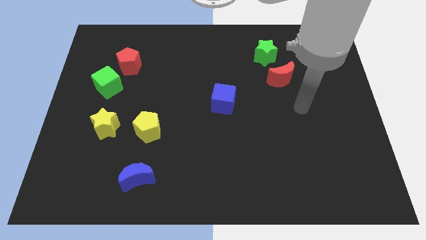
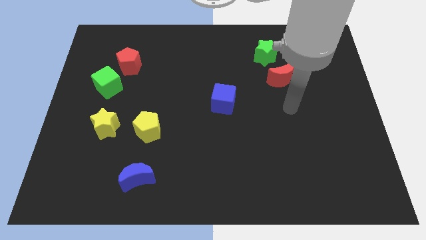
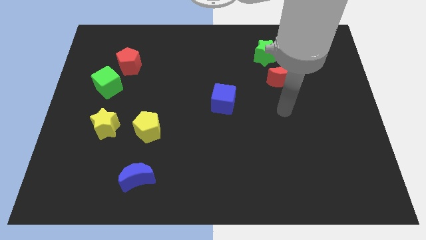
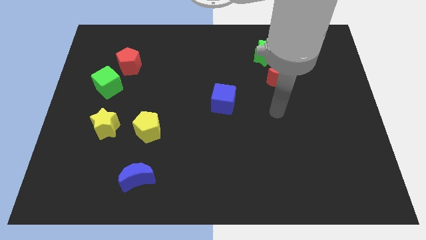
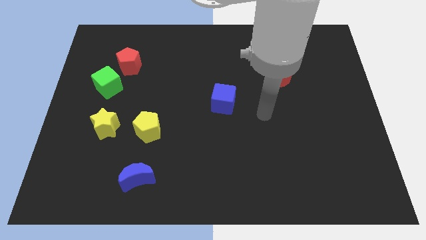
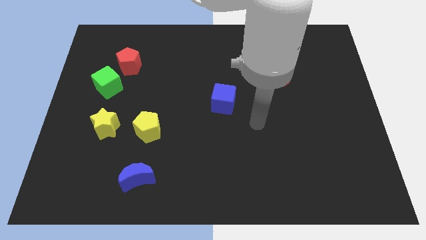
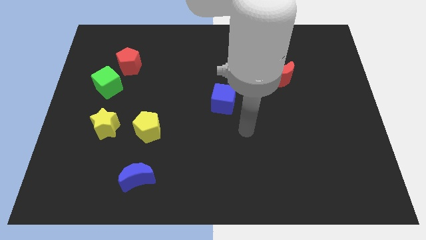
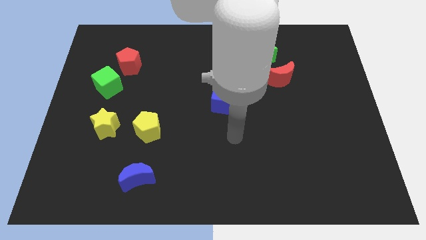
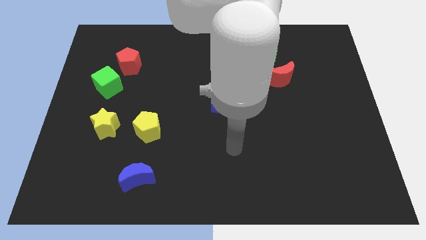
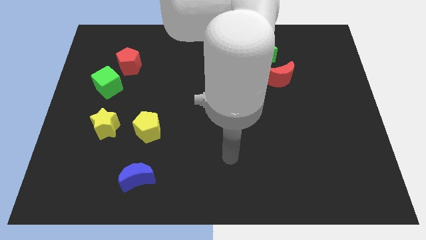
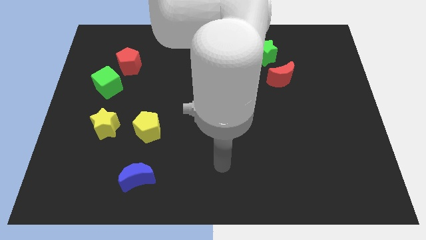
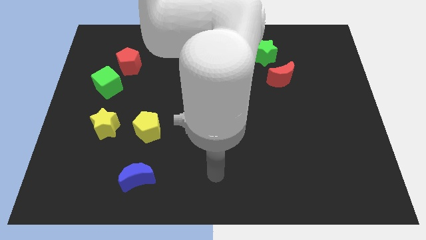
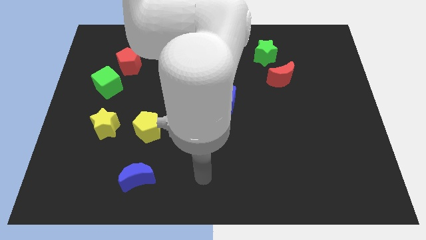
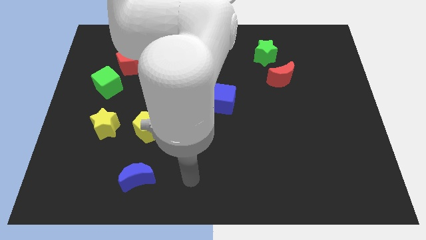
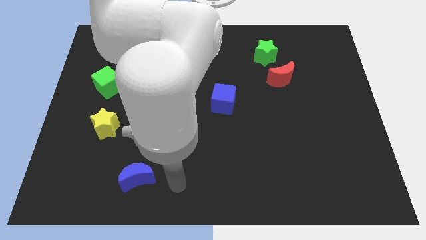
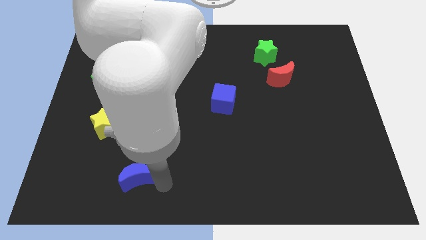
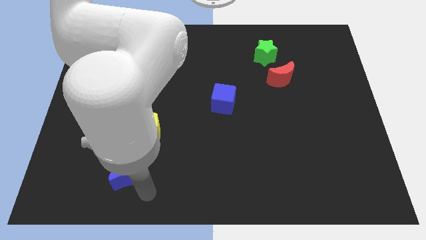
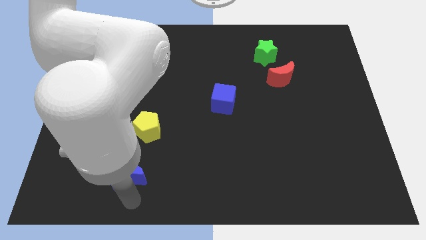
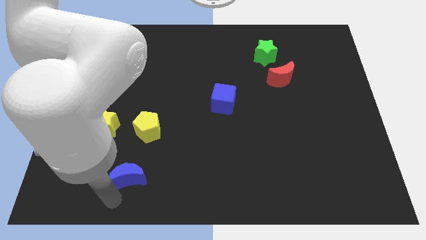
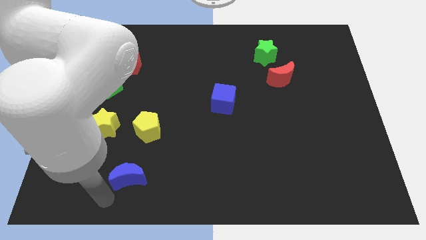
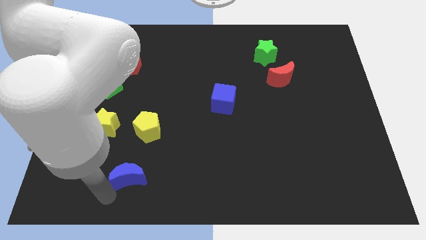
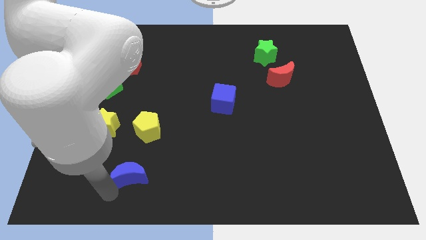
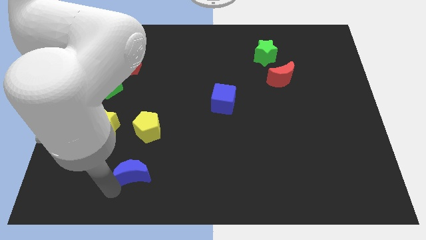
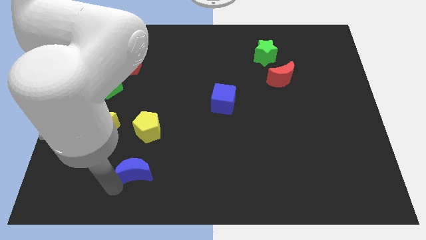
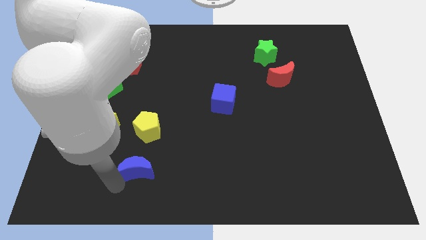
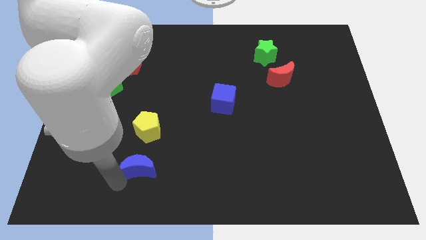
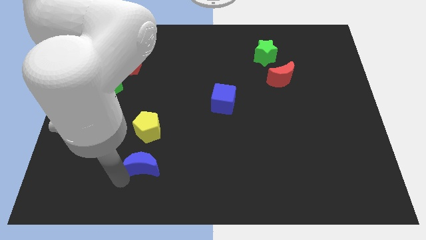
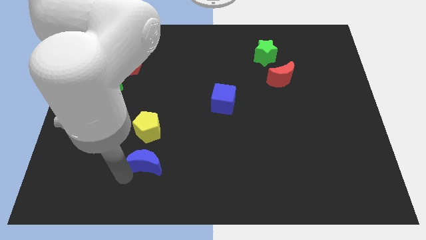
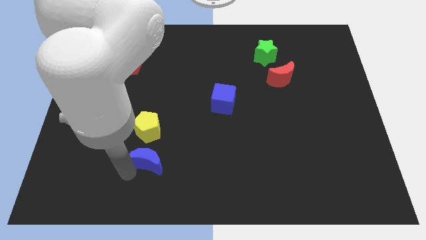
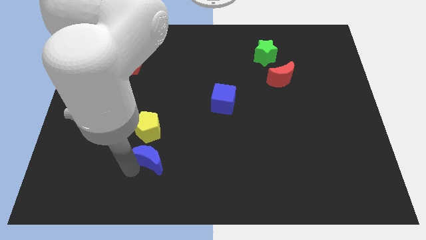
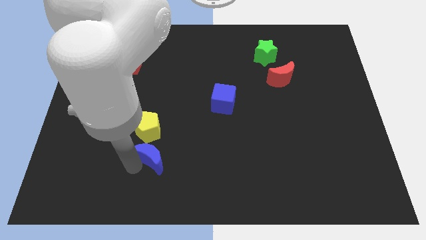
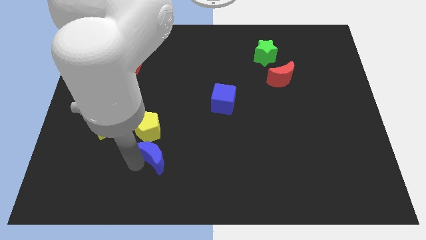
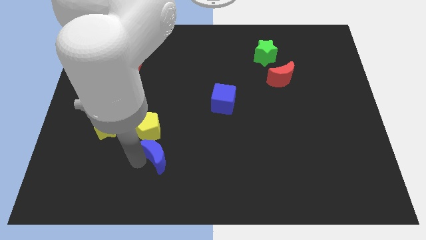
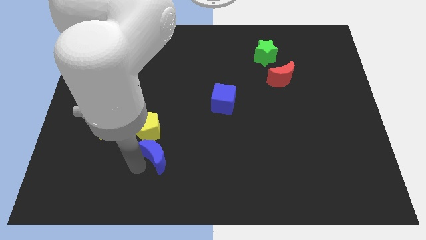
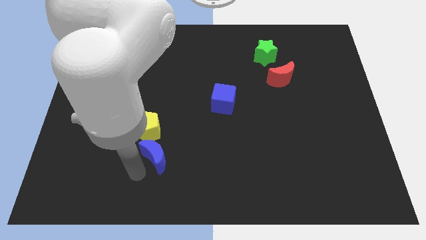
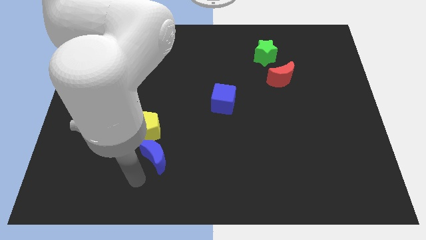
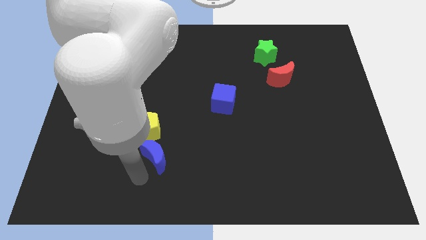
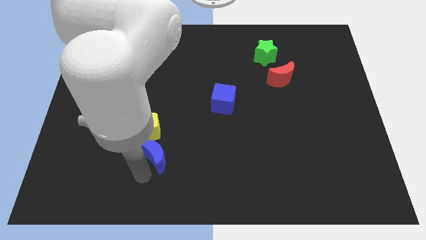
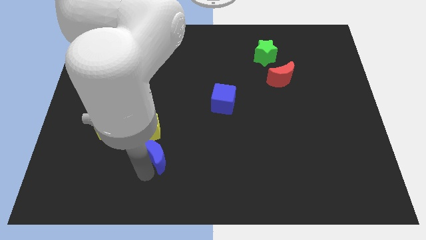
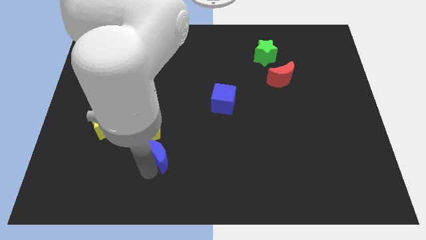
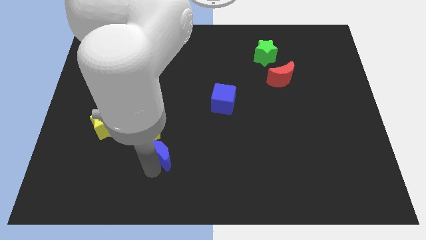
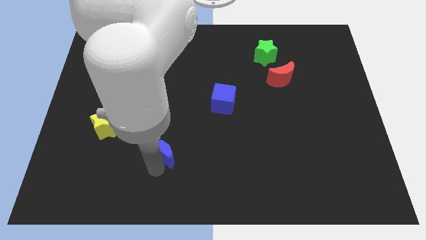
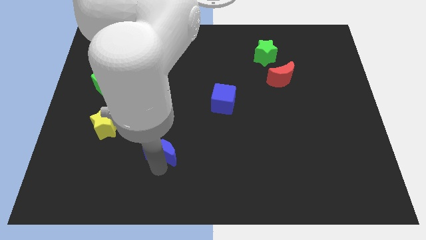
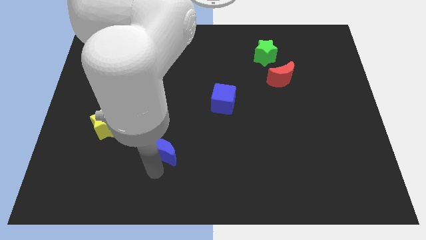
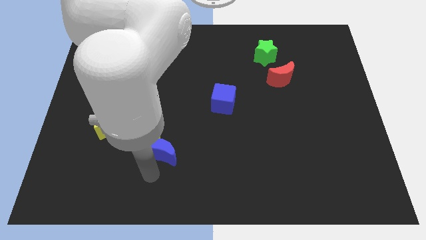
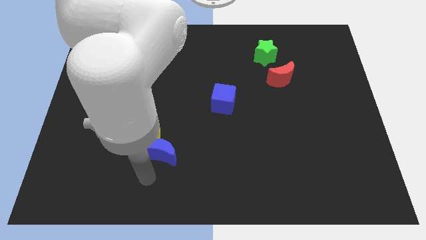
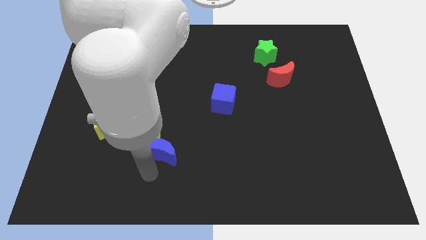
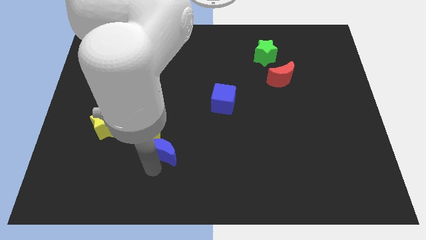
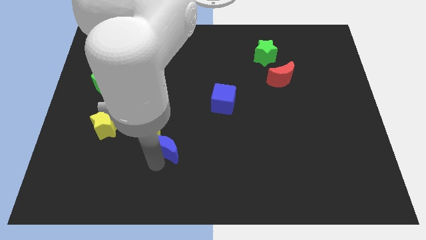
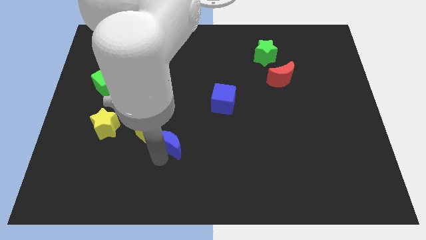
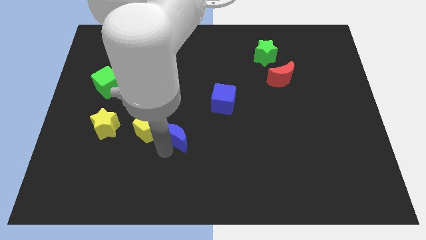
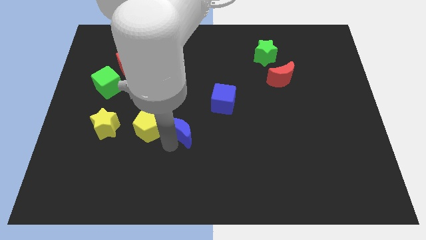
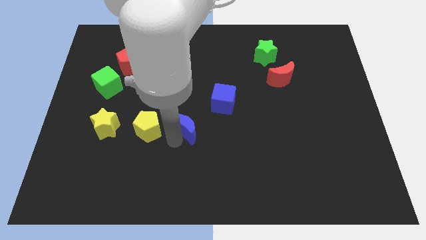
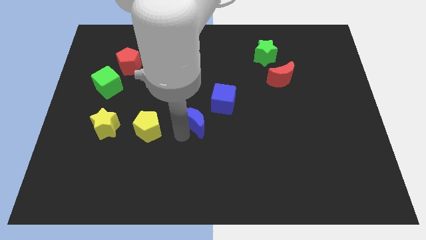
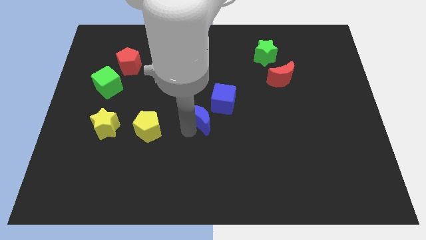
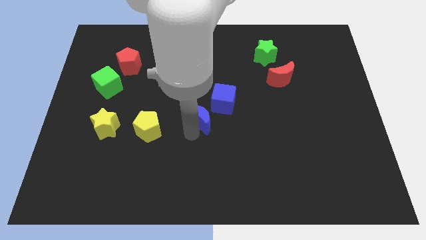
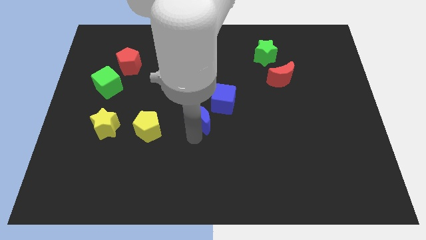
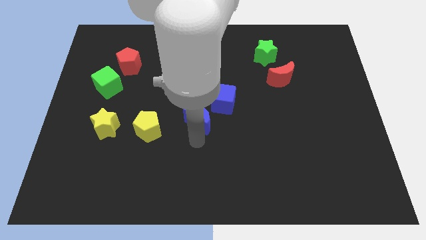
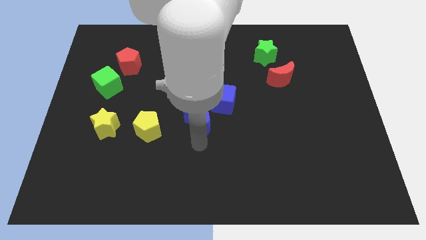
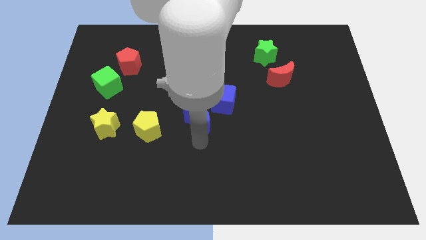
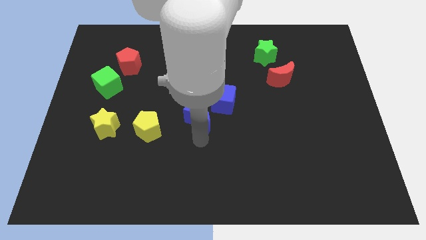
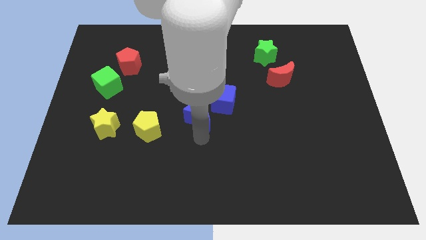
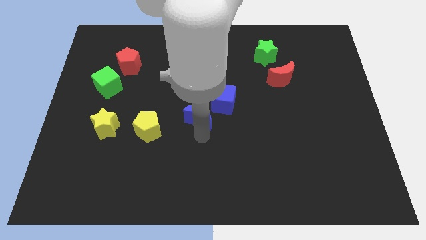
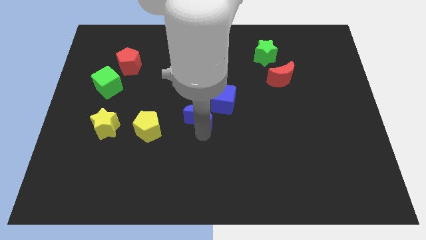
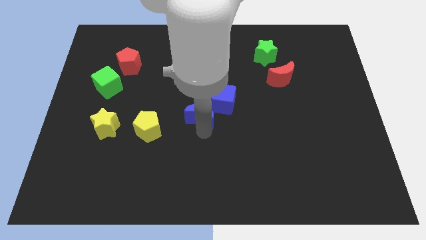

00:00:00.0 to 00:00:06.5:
move the blue moon diagonally upwards and right

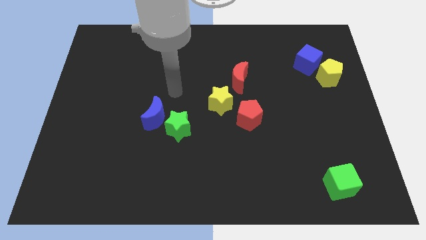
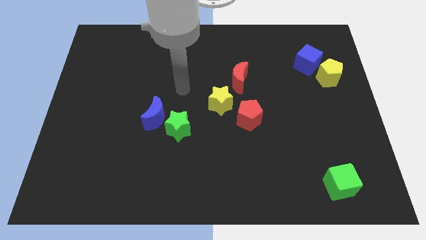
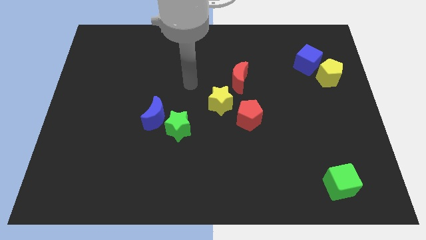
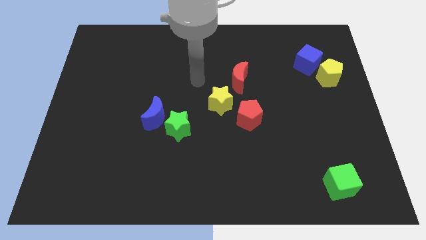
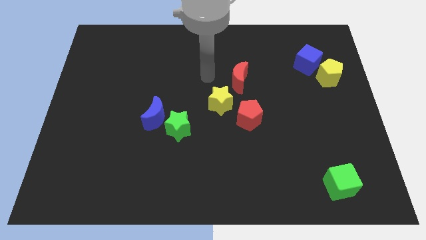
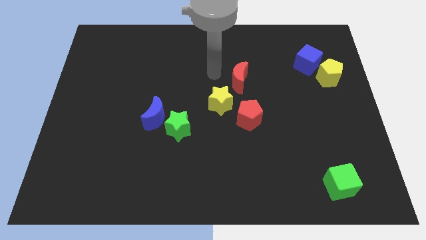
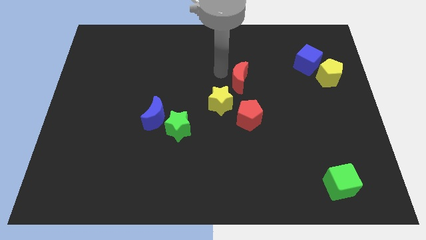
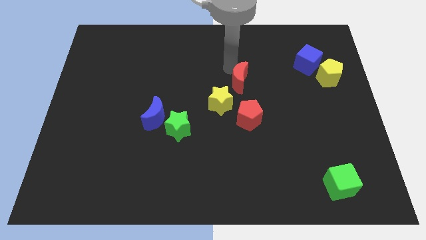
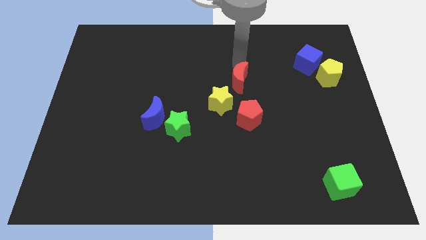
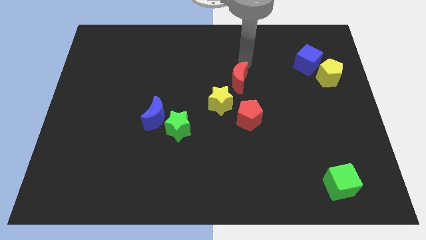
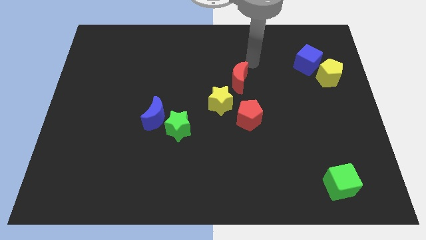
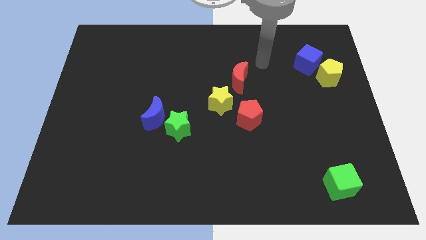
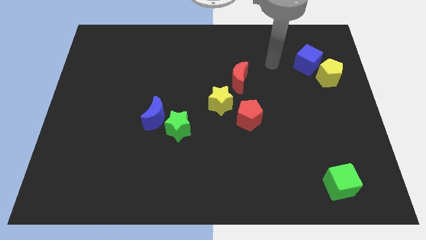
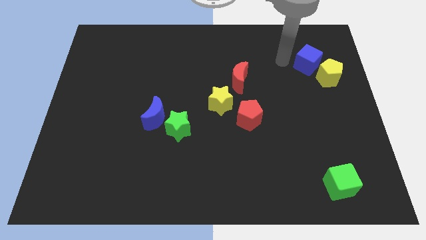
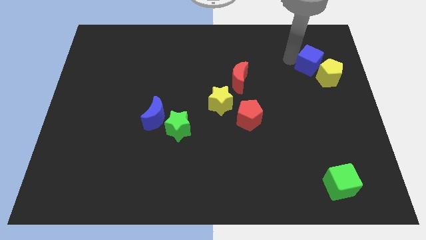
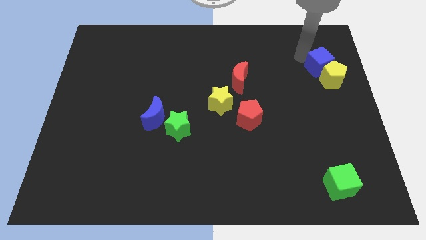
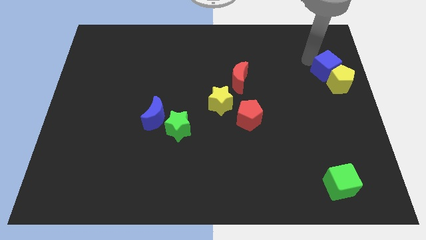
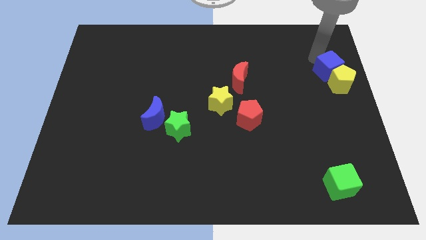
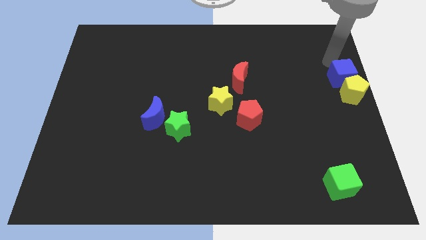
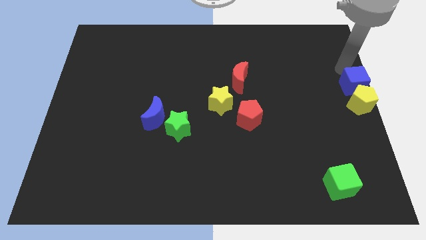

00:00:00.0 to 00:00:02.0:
slide the yellow pentagon downwards somewhat
